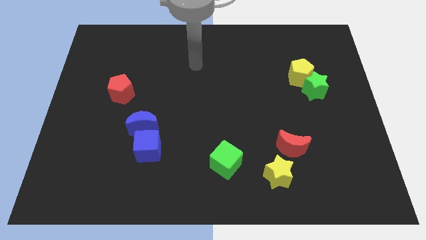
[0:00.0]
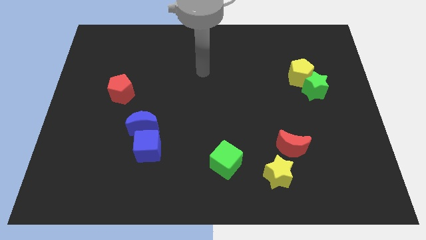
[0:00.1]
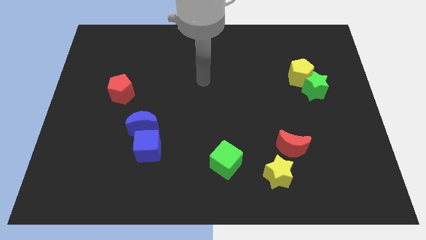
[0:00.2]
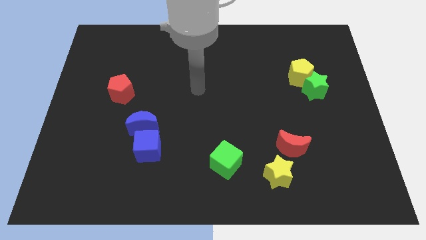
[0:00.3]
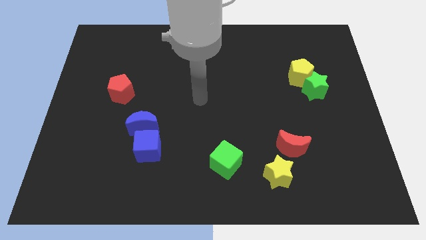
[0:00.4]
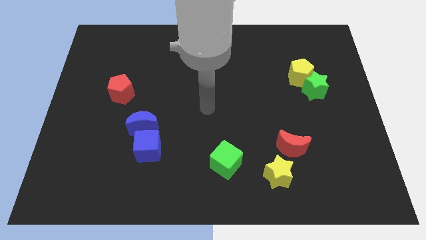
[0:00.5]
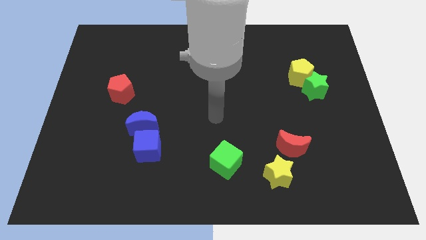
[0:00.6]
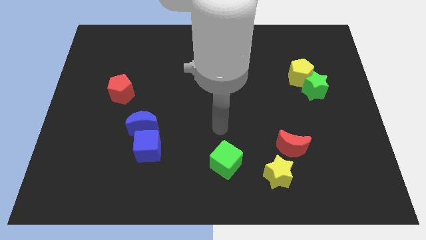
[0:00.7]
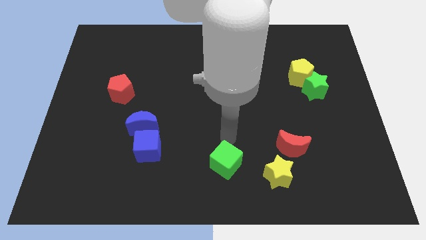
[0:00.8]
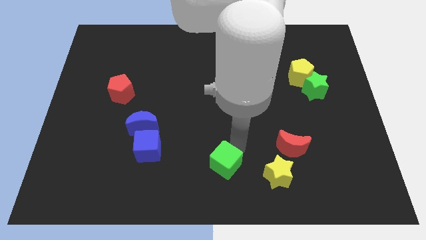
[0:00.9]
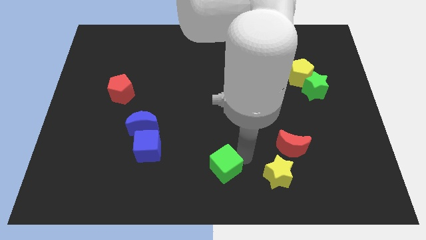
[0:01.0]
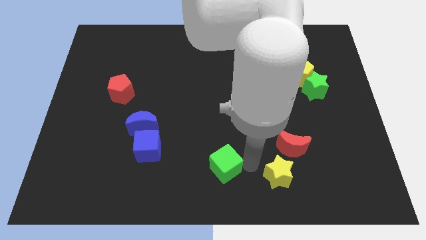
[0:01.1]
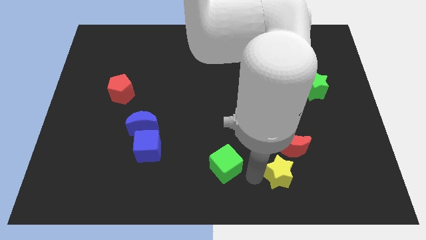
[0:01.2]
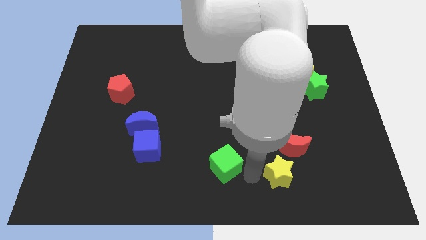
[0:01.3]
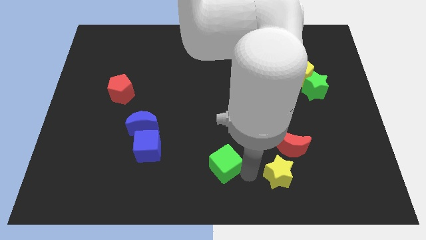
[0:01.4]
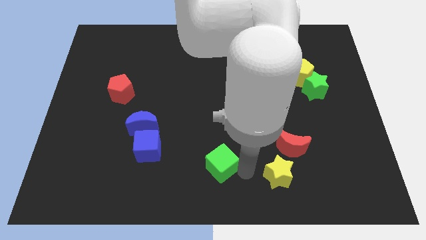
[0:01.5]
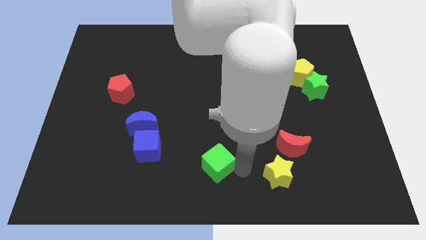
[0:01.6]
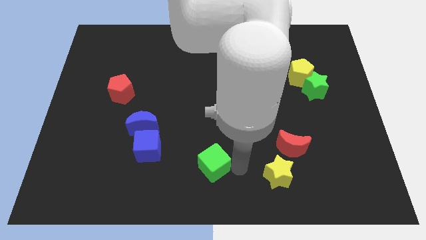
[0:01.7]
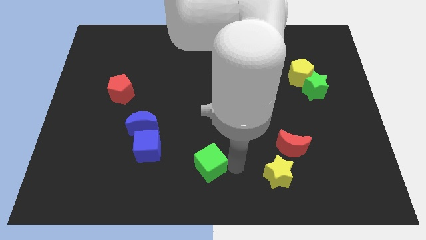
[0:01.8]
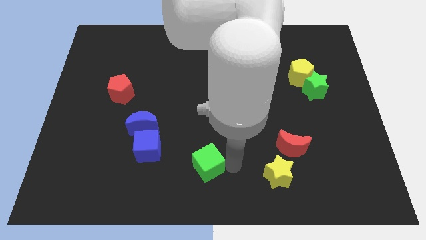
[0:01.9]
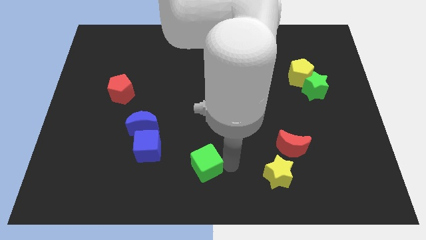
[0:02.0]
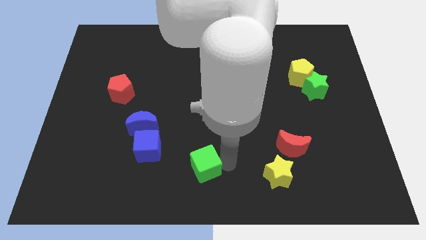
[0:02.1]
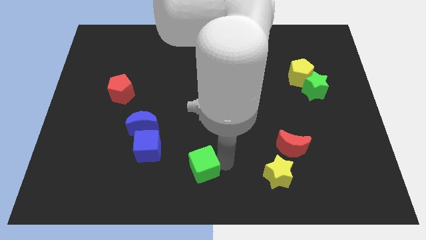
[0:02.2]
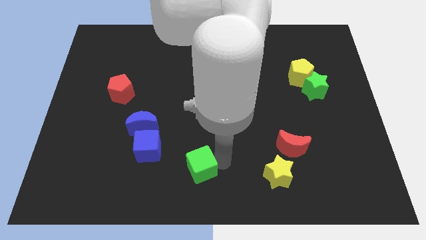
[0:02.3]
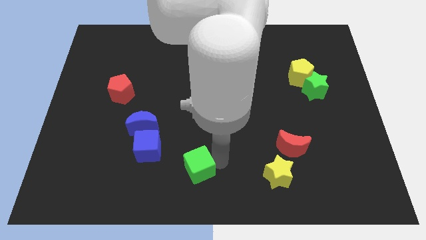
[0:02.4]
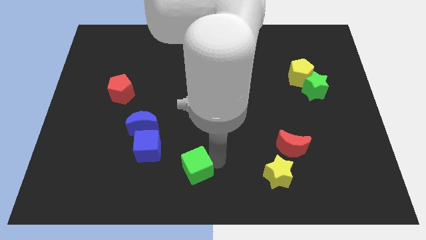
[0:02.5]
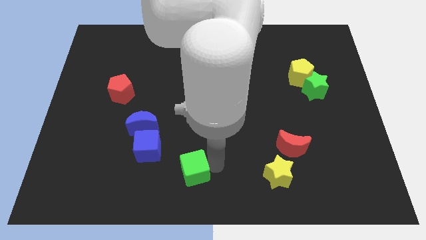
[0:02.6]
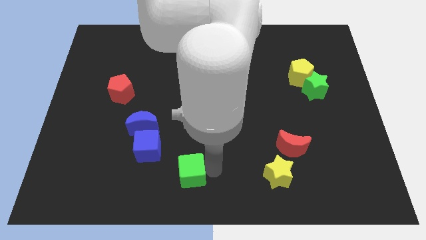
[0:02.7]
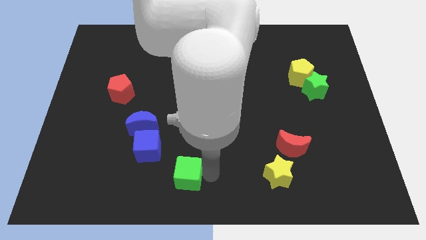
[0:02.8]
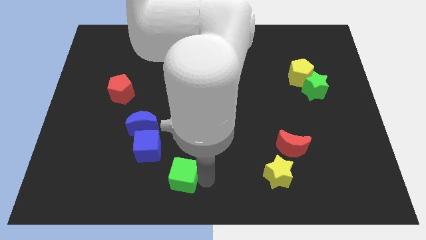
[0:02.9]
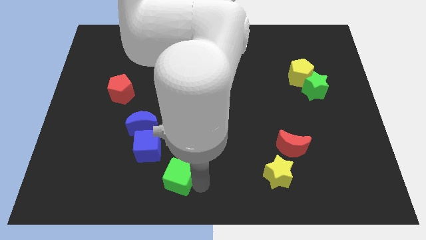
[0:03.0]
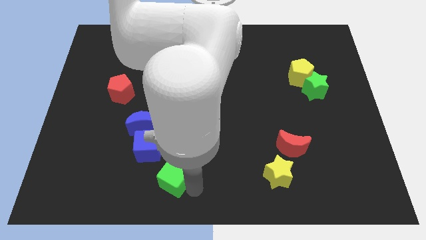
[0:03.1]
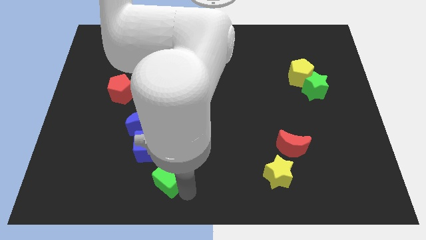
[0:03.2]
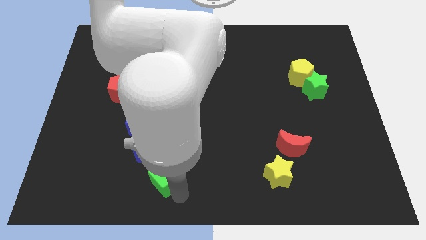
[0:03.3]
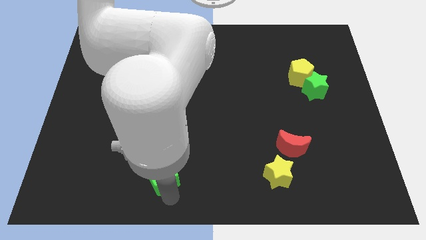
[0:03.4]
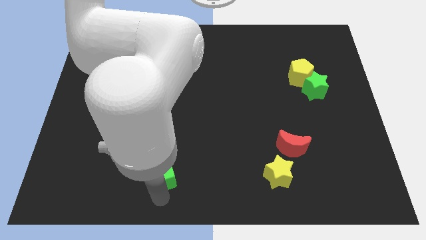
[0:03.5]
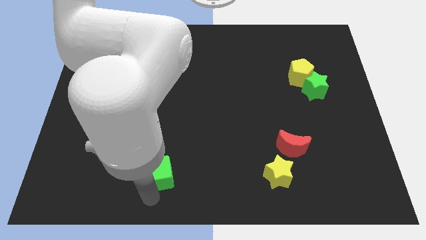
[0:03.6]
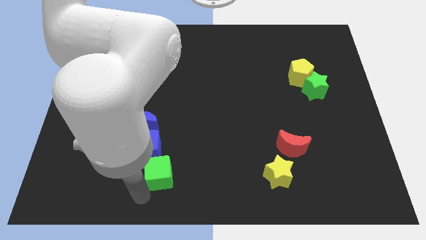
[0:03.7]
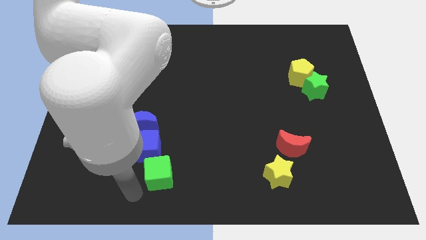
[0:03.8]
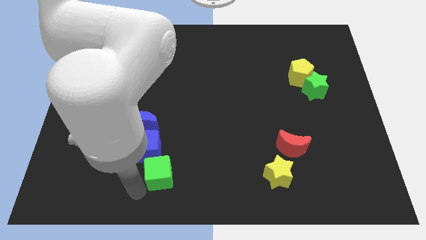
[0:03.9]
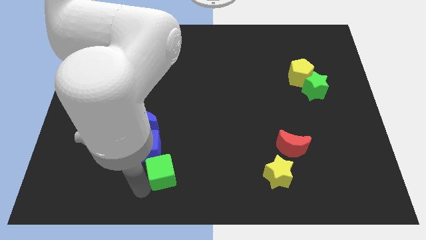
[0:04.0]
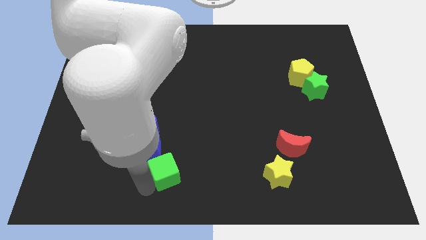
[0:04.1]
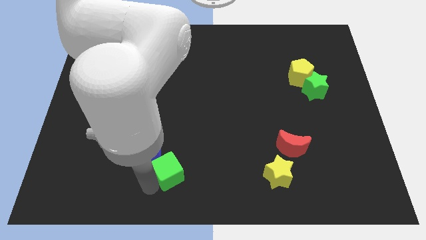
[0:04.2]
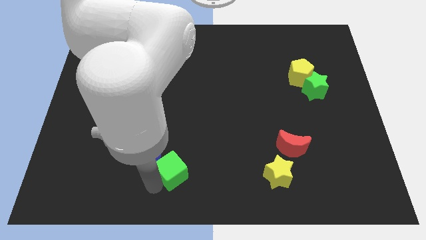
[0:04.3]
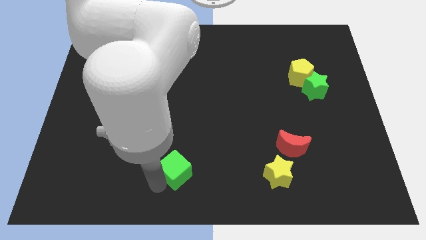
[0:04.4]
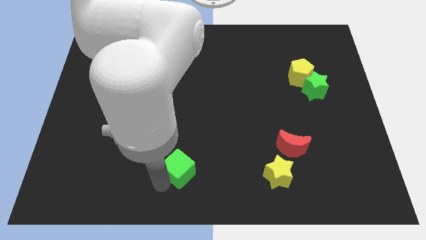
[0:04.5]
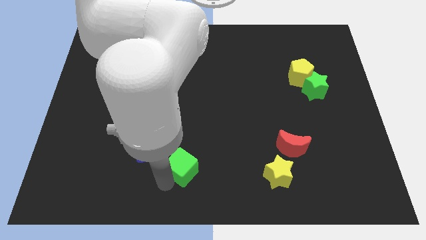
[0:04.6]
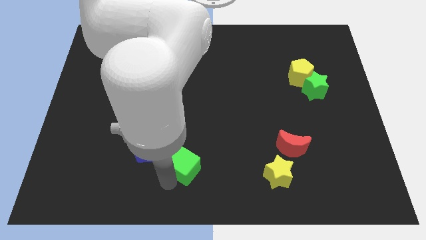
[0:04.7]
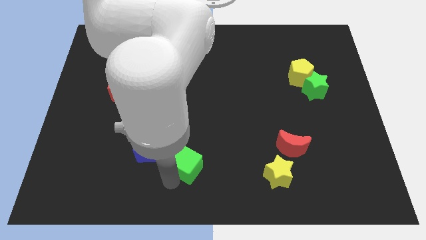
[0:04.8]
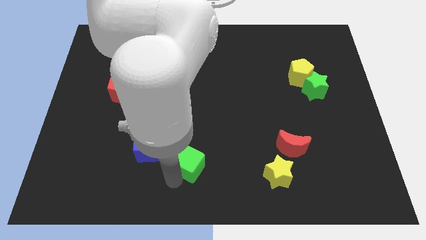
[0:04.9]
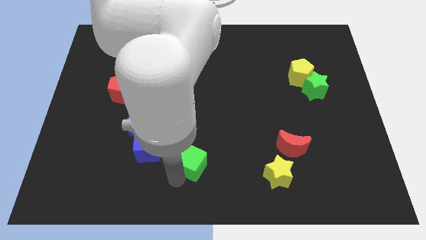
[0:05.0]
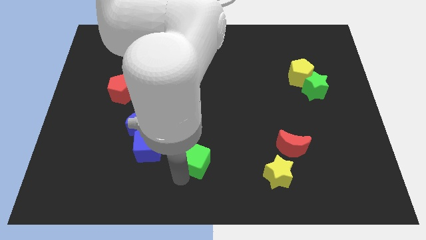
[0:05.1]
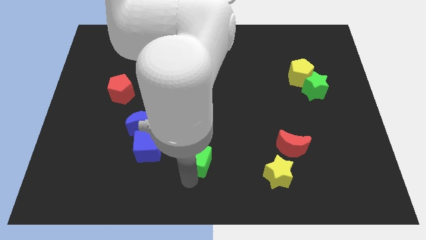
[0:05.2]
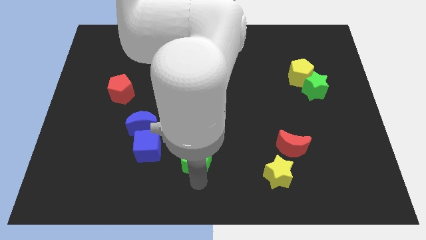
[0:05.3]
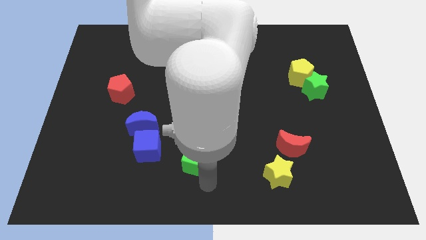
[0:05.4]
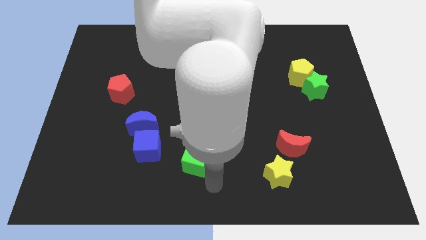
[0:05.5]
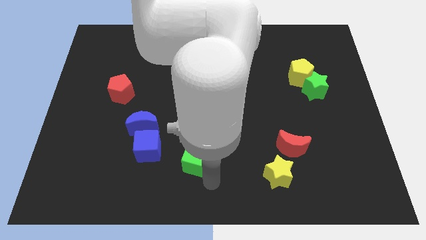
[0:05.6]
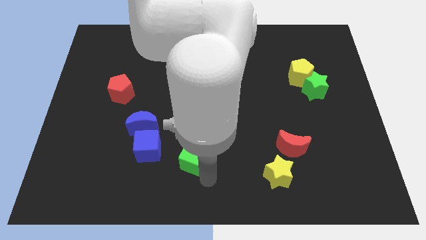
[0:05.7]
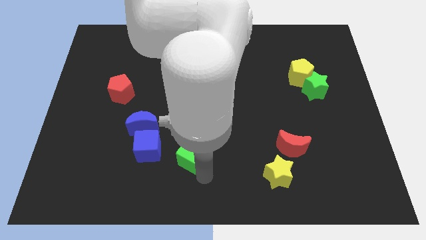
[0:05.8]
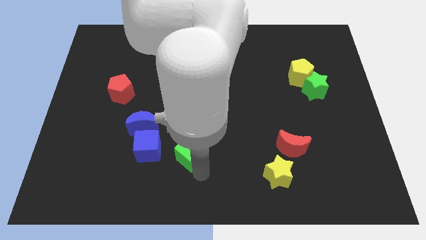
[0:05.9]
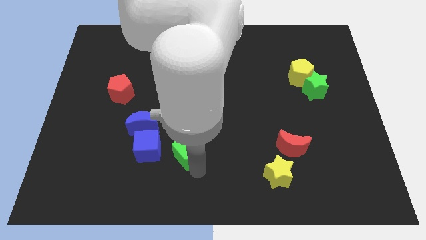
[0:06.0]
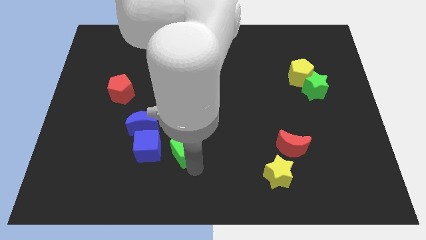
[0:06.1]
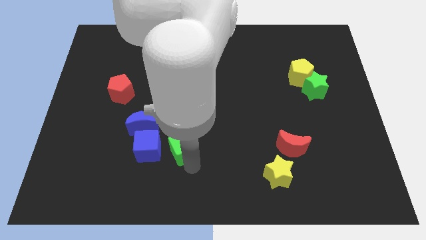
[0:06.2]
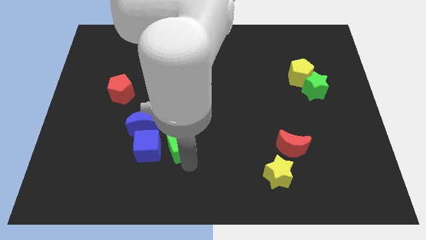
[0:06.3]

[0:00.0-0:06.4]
slide the green cube diagonally up and to the right of the blue cube

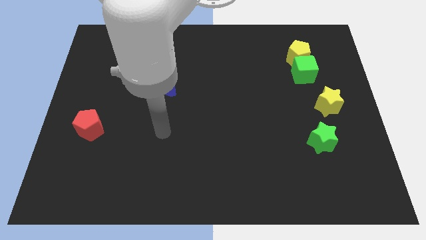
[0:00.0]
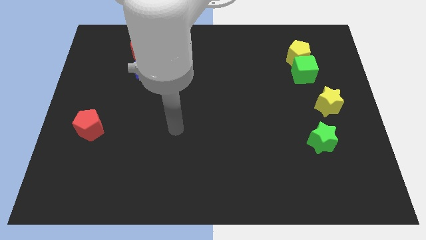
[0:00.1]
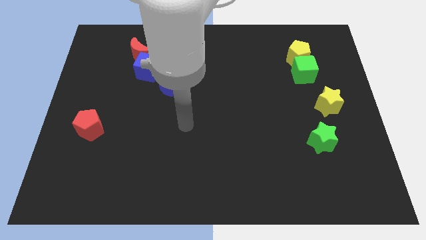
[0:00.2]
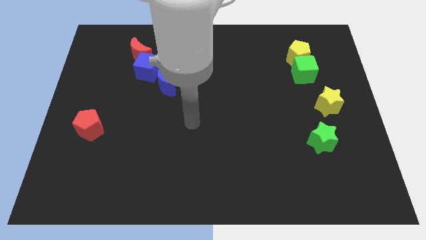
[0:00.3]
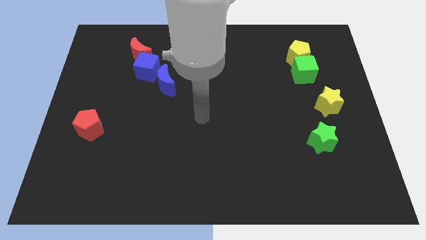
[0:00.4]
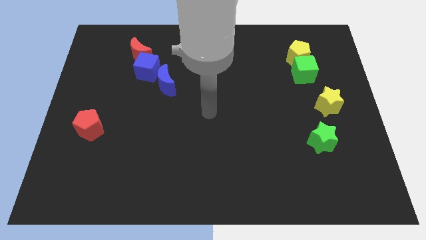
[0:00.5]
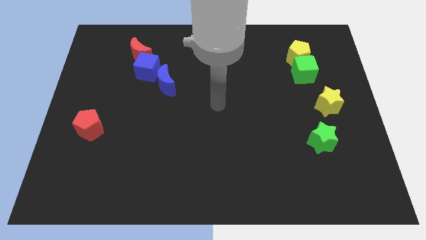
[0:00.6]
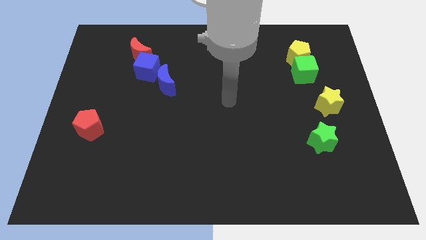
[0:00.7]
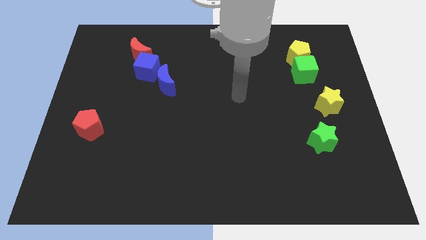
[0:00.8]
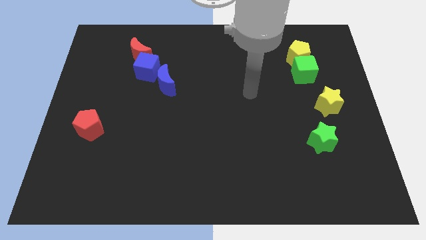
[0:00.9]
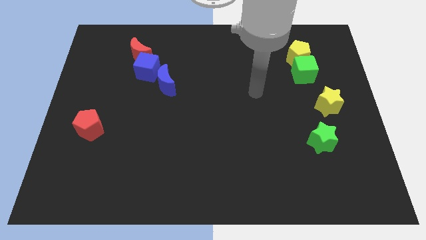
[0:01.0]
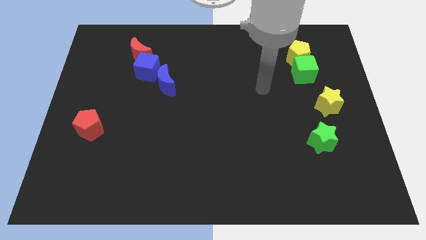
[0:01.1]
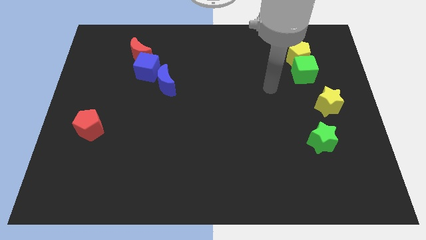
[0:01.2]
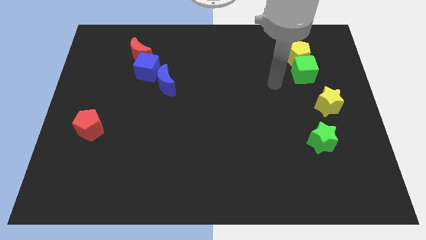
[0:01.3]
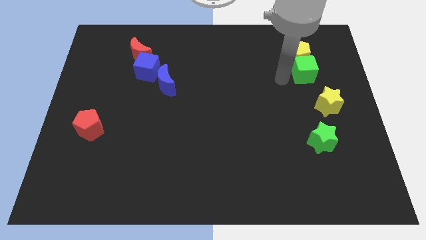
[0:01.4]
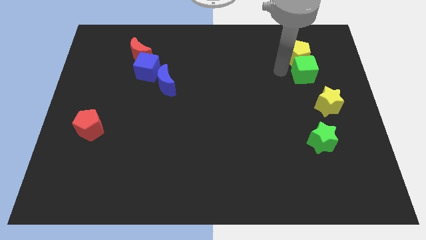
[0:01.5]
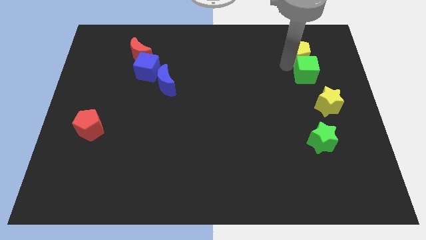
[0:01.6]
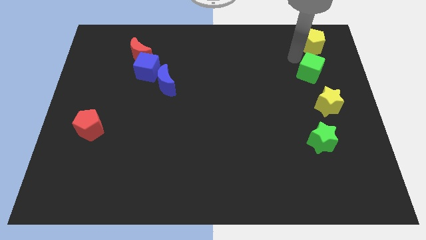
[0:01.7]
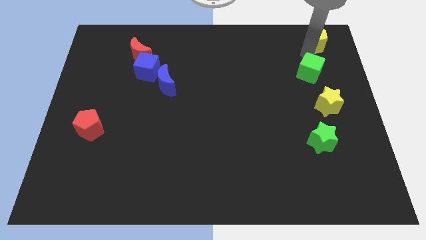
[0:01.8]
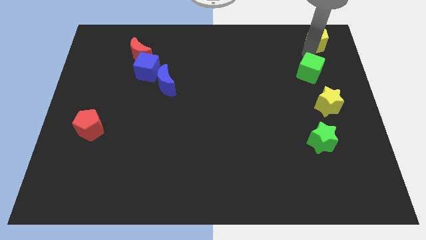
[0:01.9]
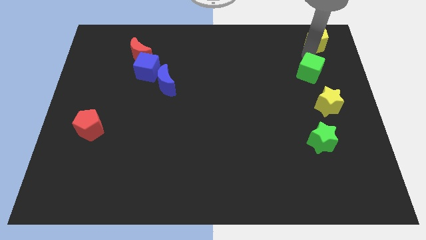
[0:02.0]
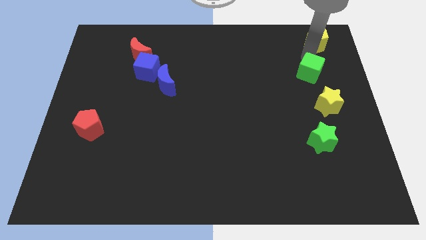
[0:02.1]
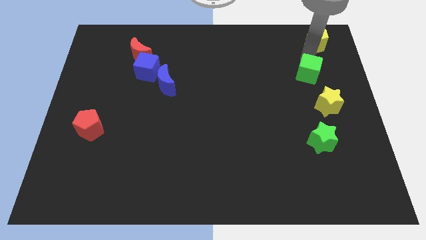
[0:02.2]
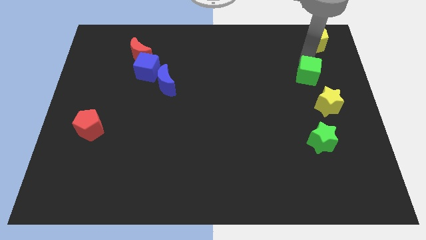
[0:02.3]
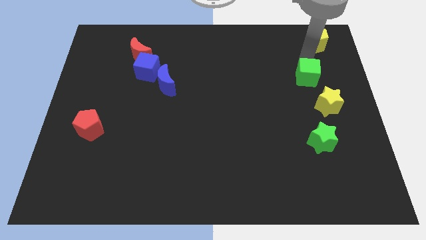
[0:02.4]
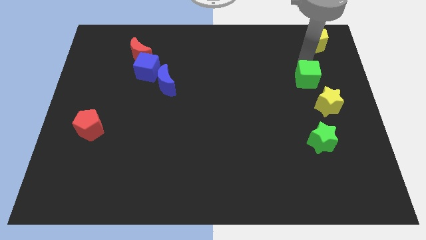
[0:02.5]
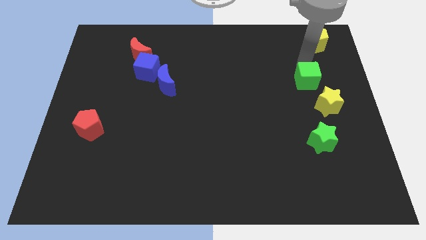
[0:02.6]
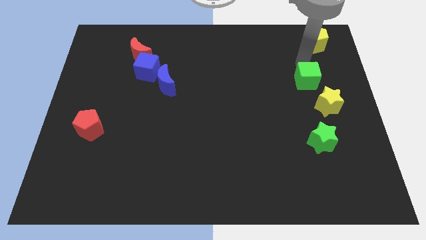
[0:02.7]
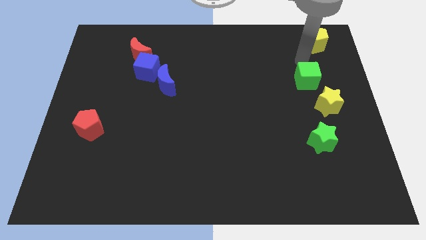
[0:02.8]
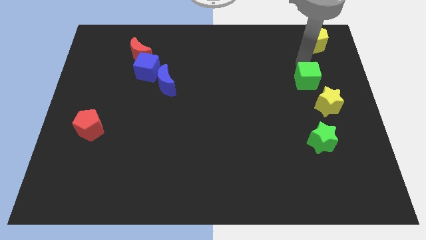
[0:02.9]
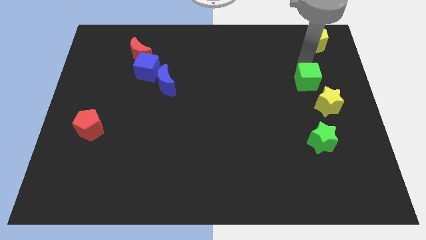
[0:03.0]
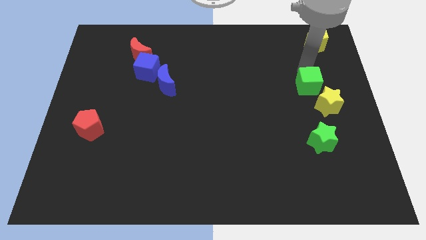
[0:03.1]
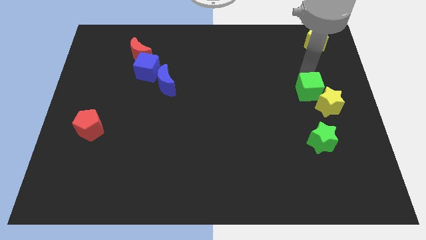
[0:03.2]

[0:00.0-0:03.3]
move the green cube above the green star
